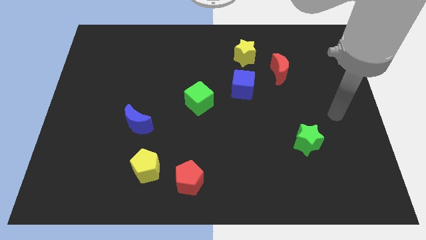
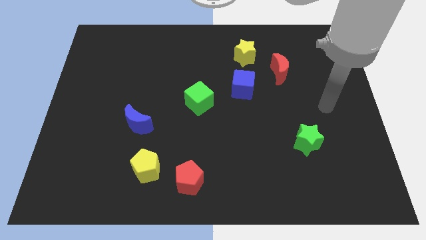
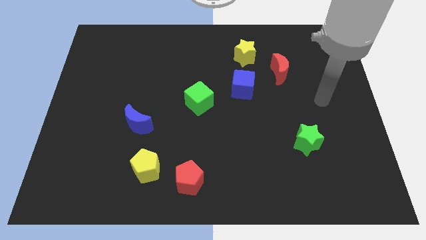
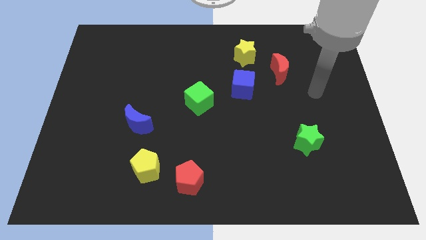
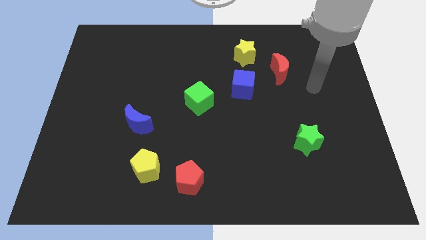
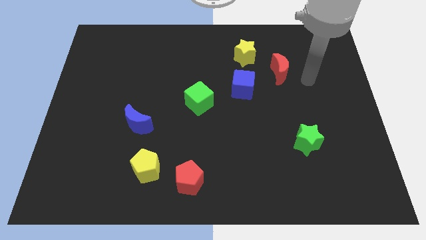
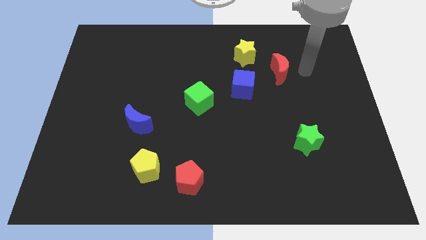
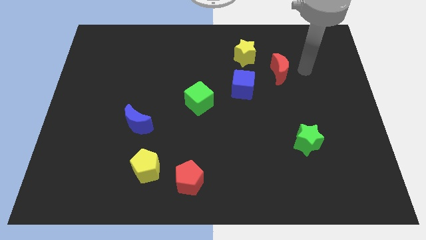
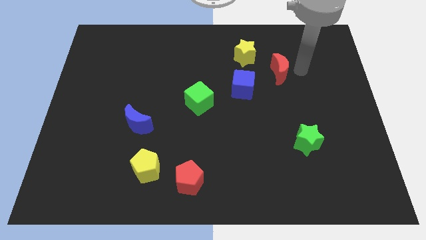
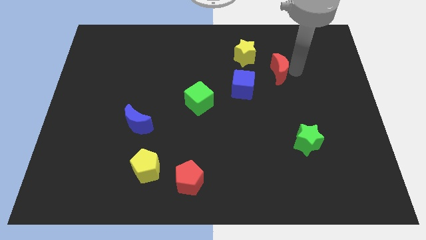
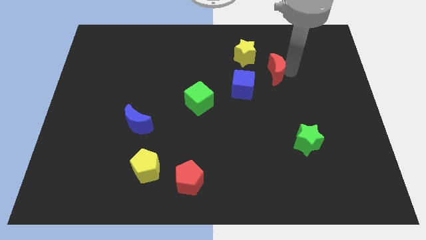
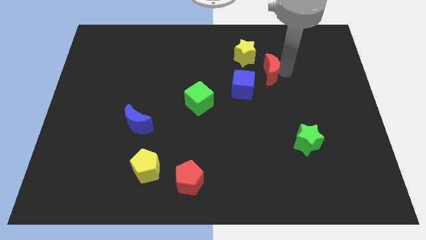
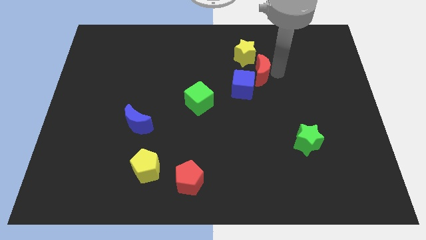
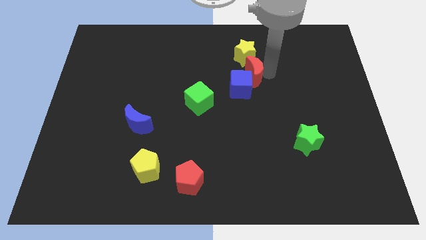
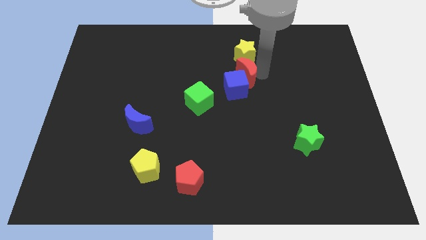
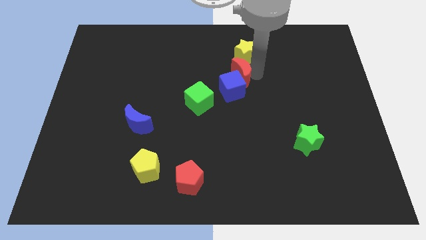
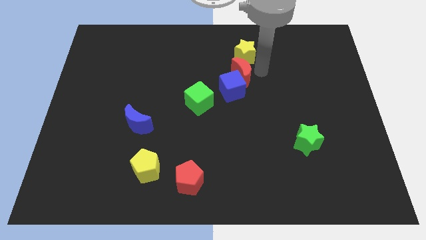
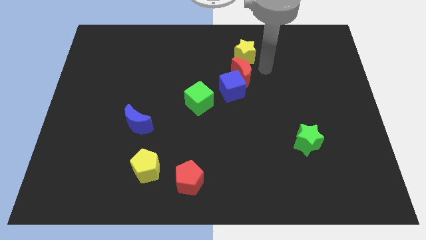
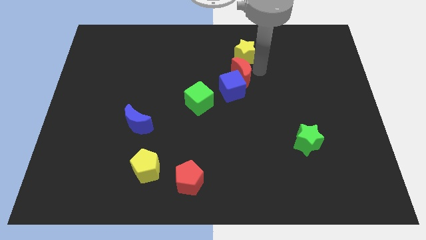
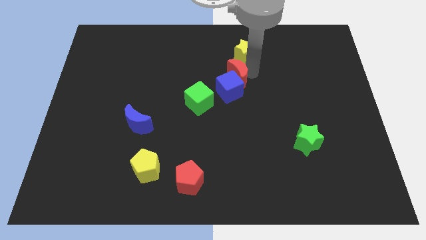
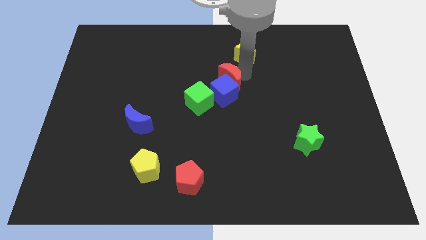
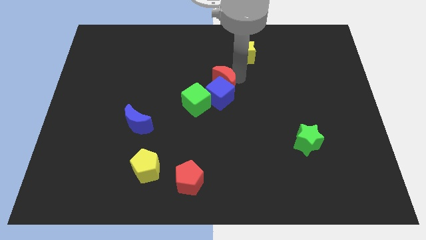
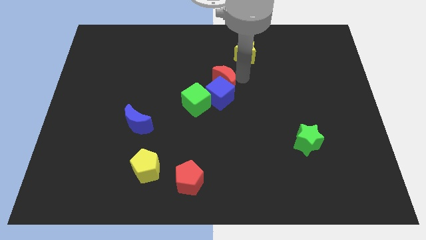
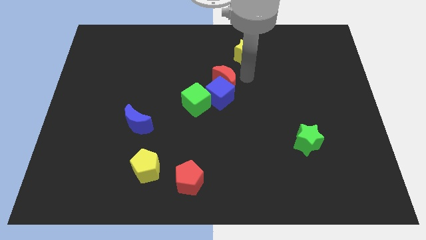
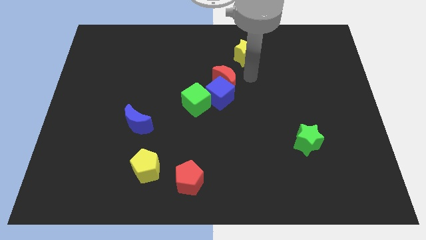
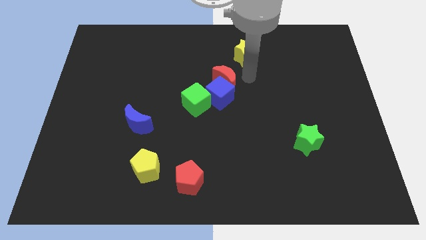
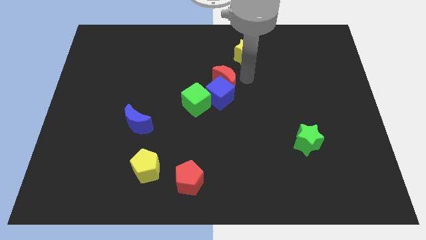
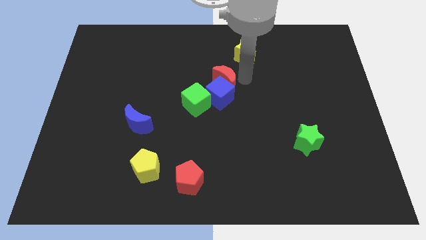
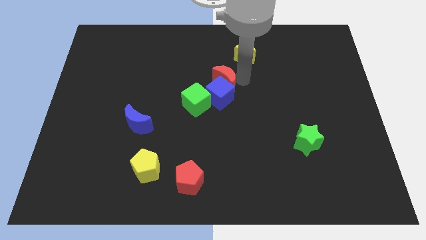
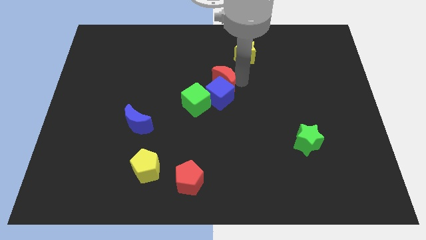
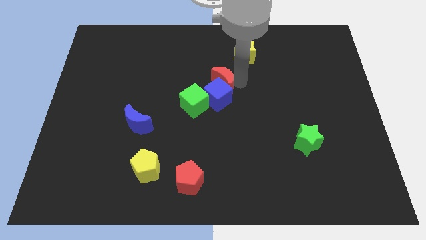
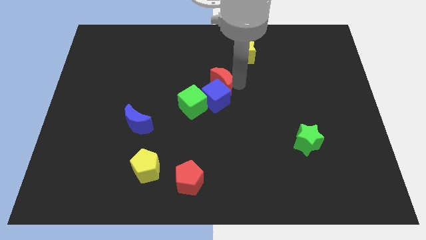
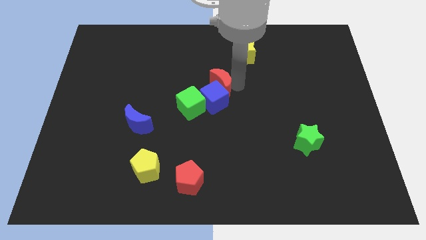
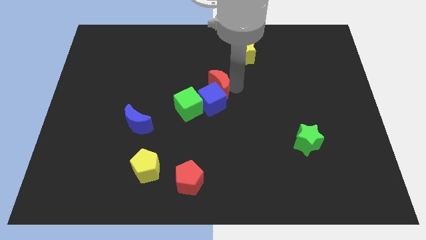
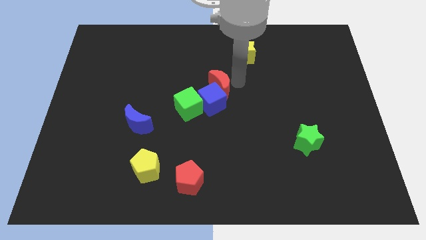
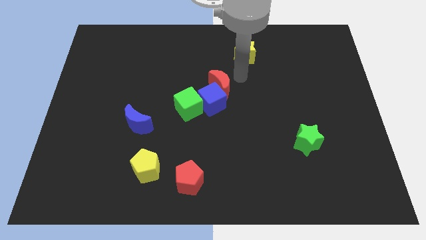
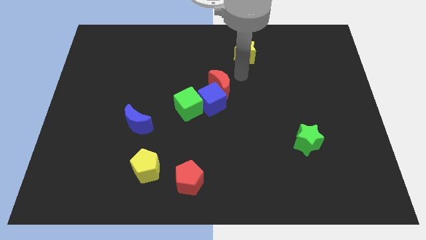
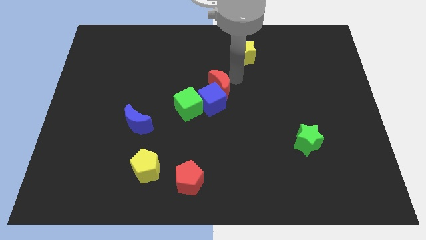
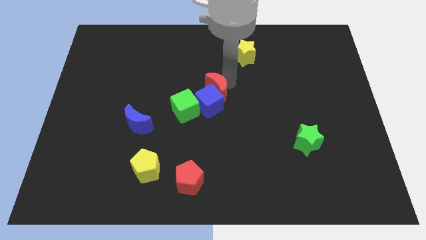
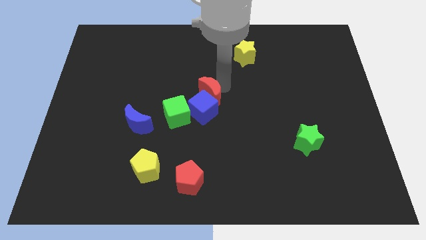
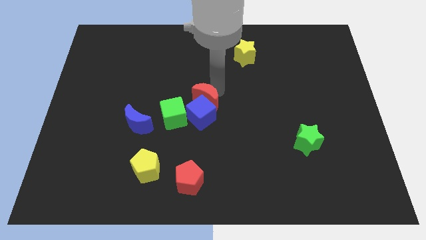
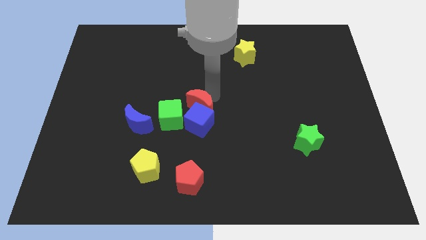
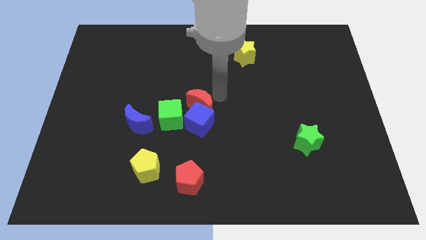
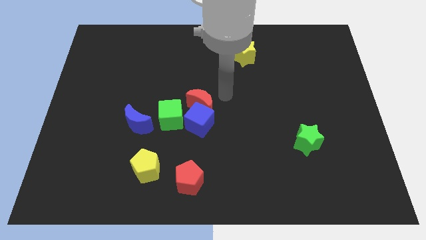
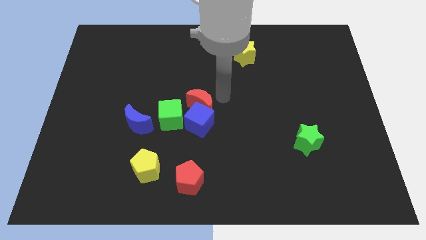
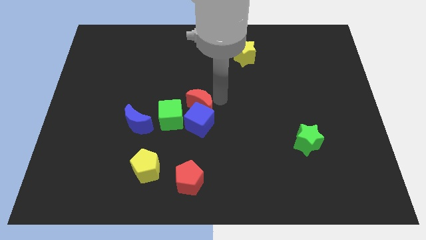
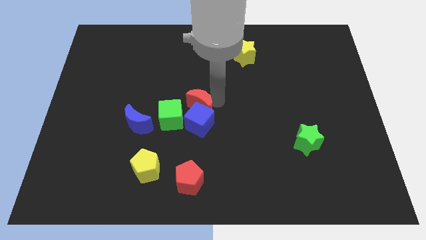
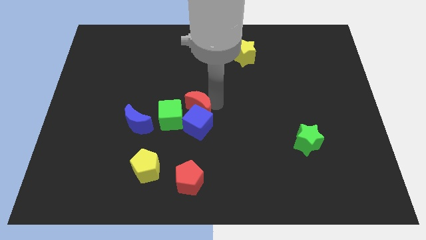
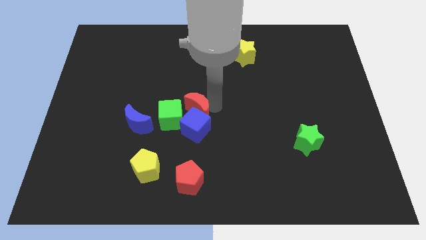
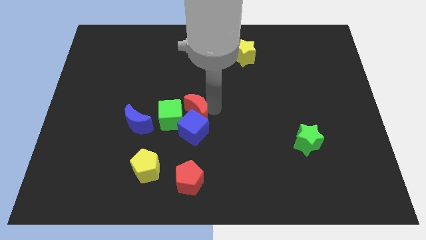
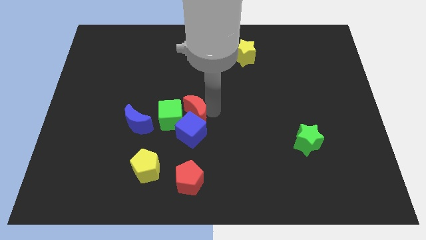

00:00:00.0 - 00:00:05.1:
push the red moon to the green cube
